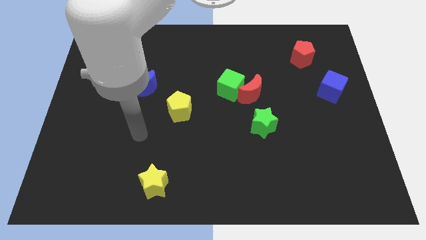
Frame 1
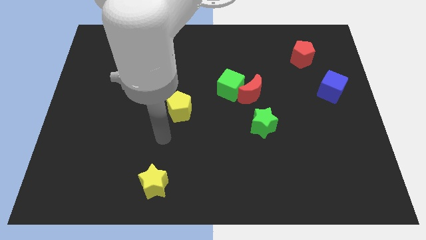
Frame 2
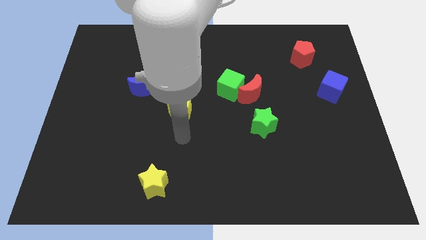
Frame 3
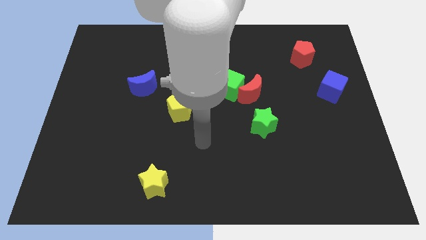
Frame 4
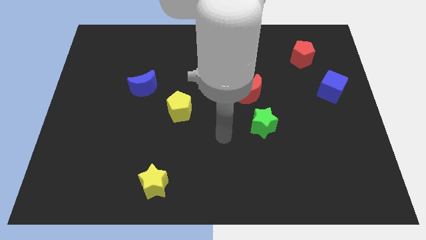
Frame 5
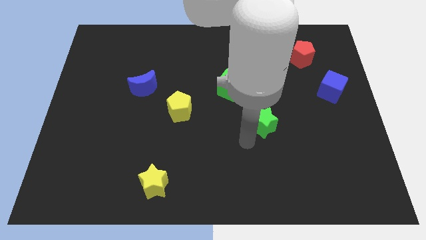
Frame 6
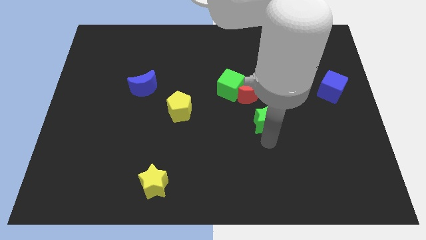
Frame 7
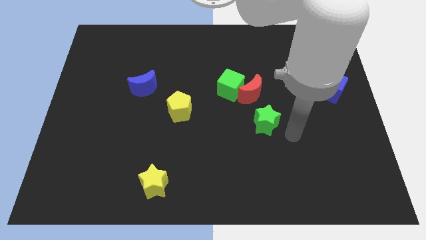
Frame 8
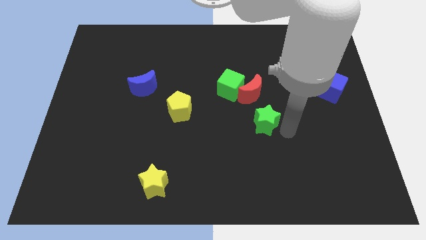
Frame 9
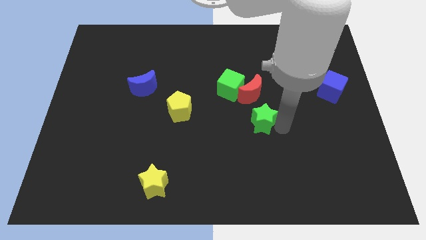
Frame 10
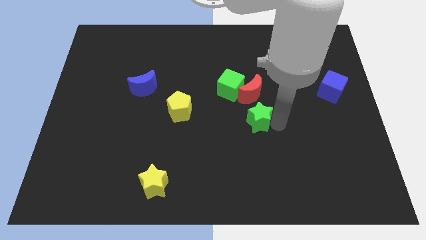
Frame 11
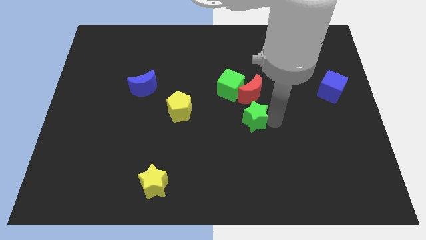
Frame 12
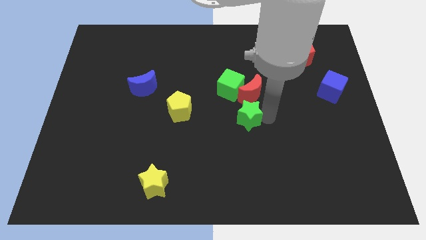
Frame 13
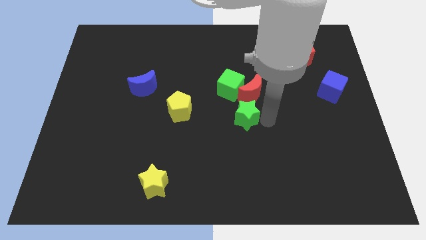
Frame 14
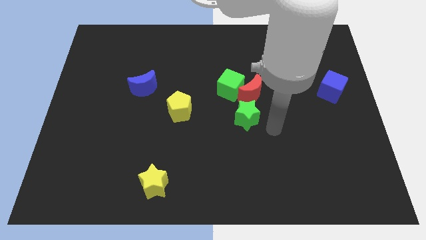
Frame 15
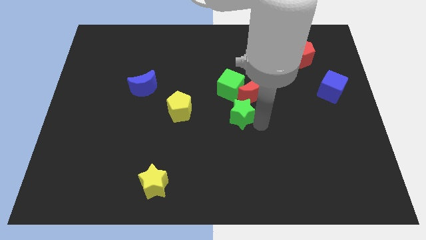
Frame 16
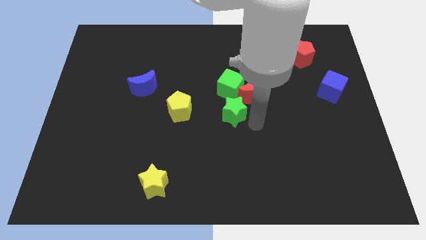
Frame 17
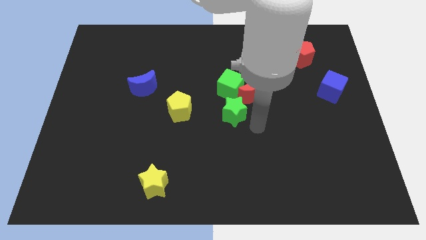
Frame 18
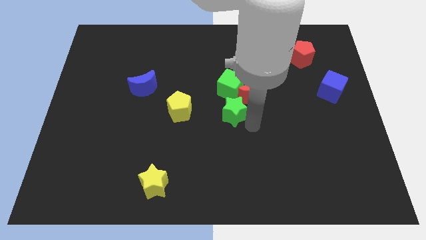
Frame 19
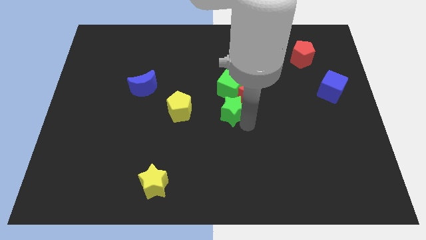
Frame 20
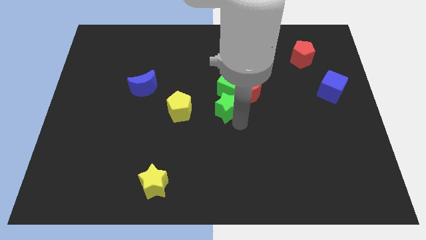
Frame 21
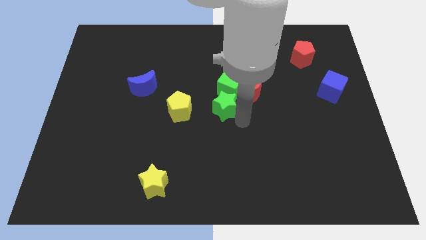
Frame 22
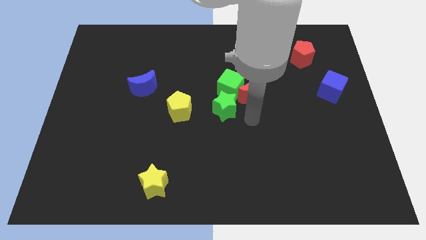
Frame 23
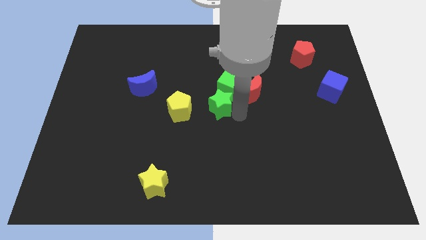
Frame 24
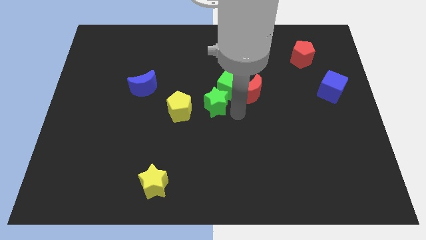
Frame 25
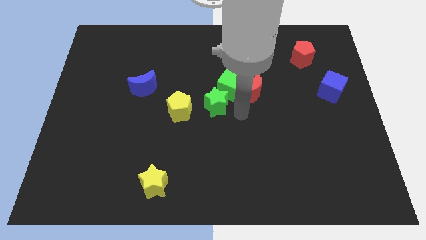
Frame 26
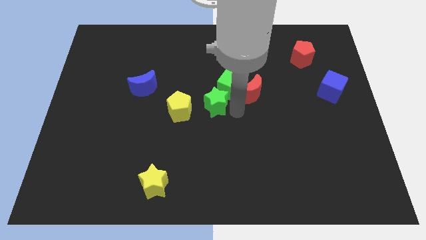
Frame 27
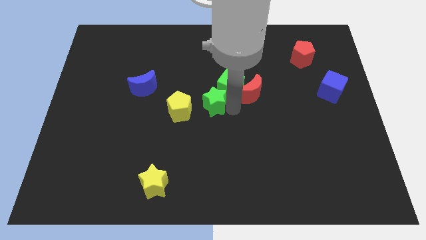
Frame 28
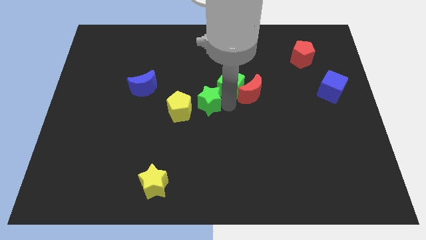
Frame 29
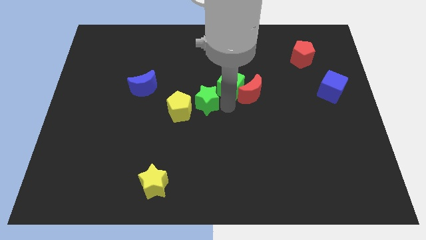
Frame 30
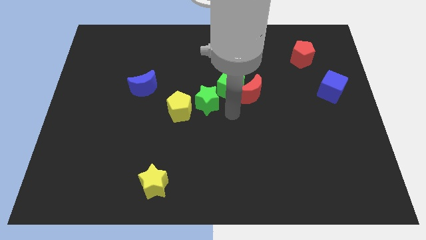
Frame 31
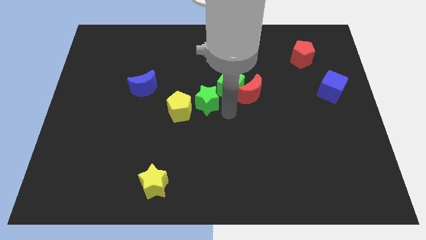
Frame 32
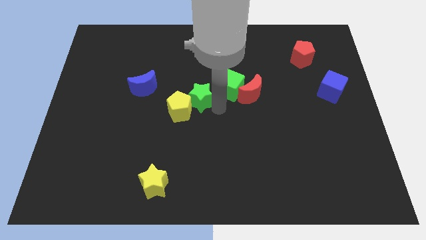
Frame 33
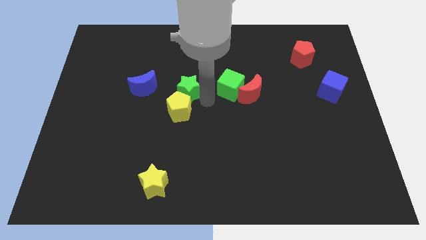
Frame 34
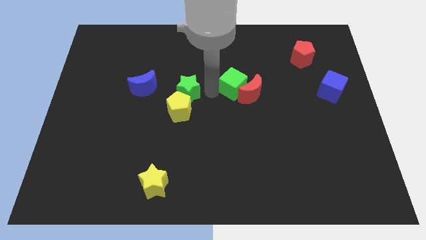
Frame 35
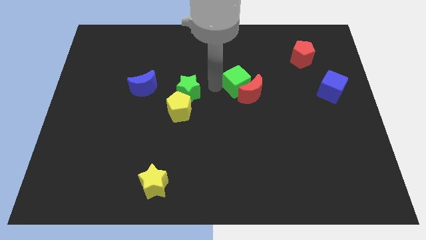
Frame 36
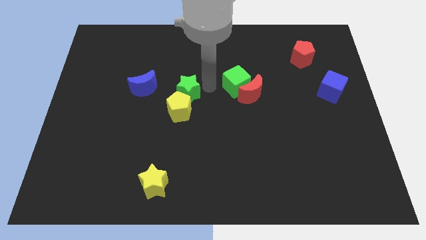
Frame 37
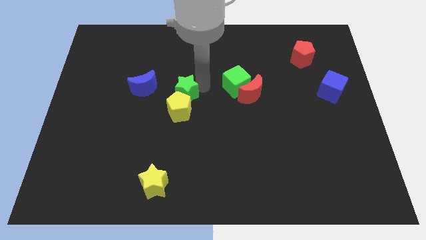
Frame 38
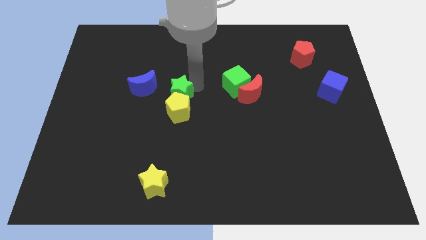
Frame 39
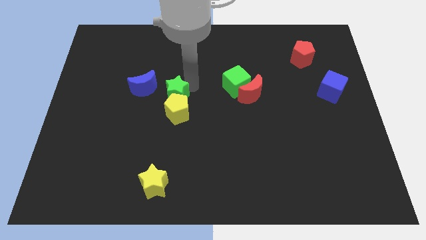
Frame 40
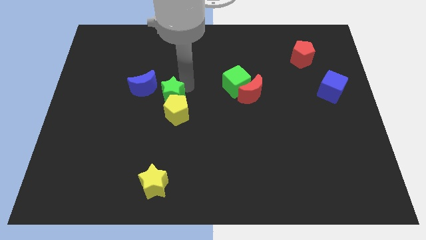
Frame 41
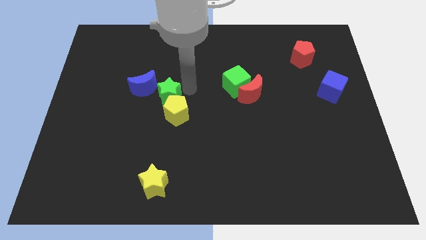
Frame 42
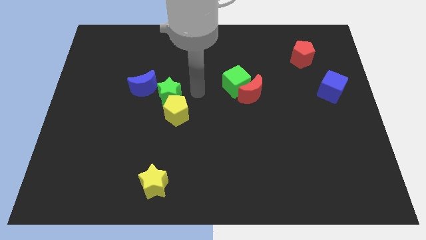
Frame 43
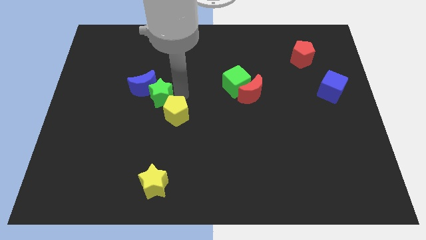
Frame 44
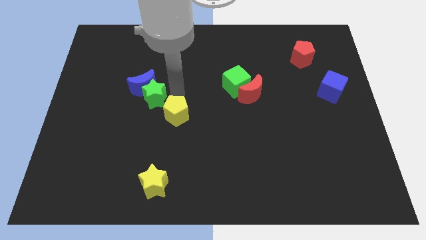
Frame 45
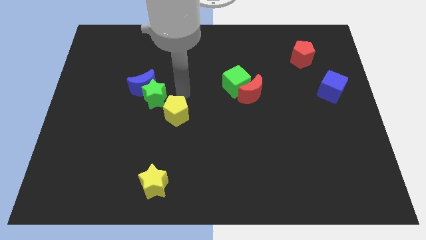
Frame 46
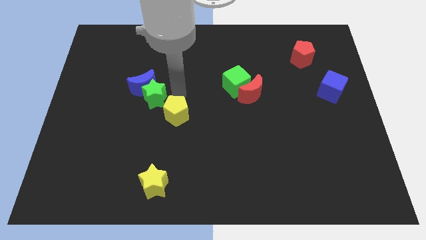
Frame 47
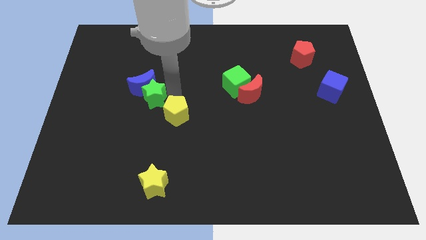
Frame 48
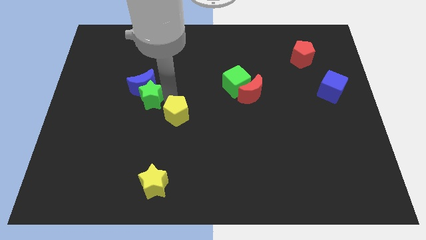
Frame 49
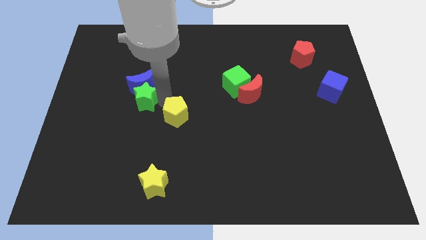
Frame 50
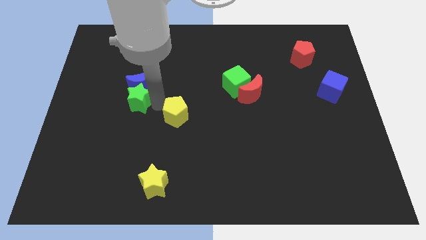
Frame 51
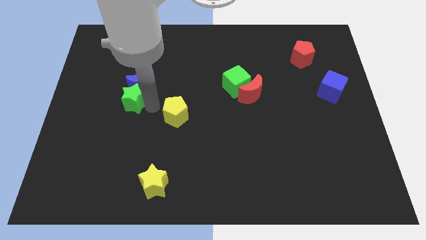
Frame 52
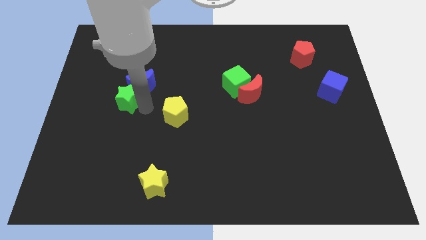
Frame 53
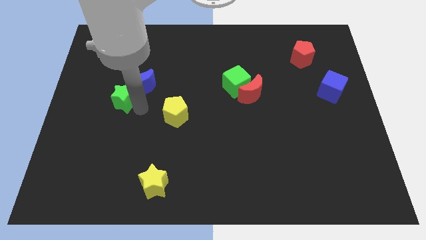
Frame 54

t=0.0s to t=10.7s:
move the green star just left of the blue moon

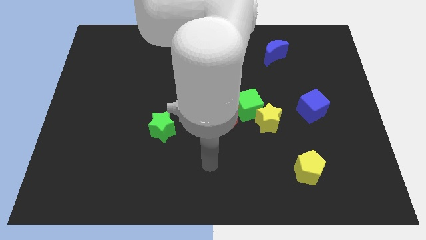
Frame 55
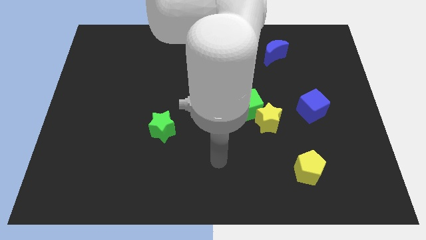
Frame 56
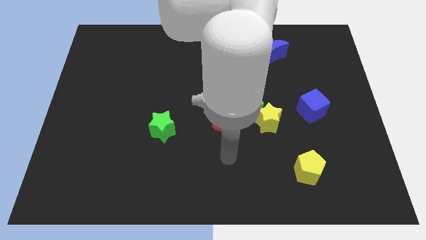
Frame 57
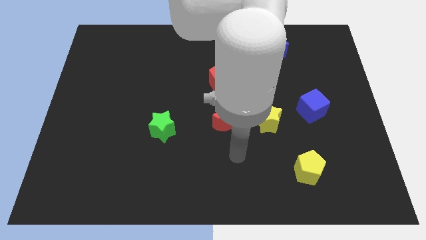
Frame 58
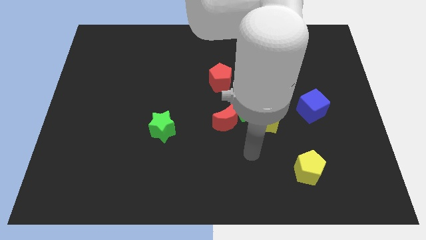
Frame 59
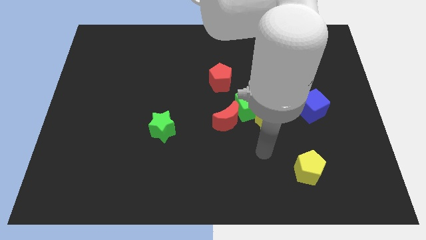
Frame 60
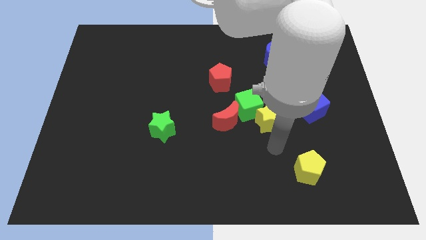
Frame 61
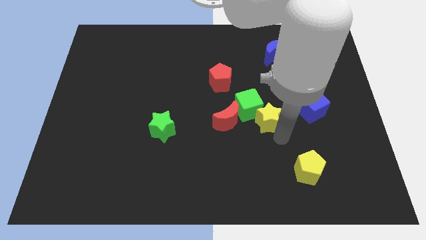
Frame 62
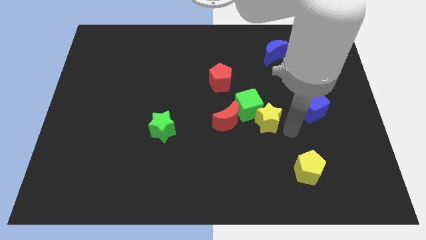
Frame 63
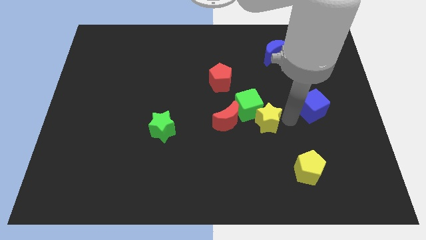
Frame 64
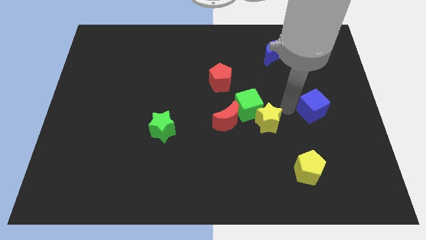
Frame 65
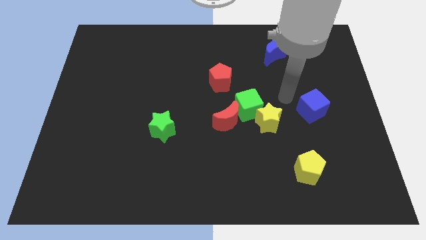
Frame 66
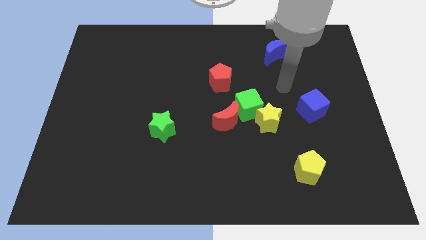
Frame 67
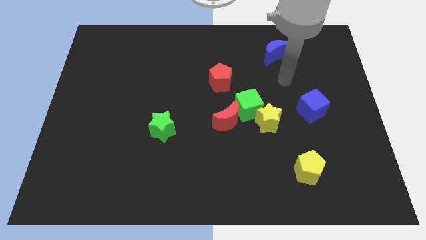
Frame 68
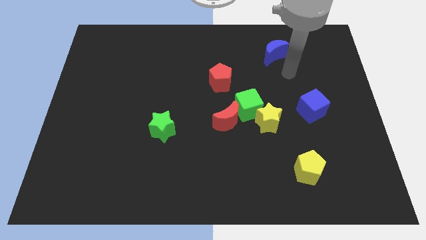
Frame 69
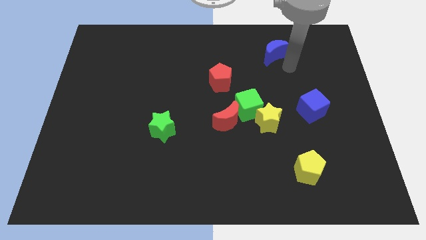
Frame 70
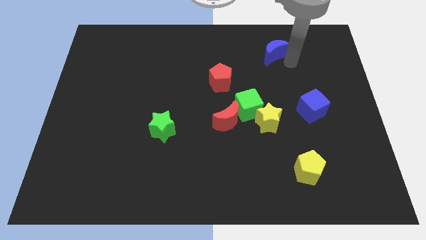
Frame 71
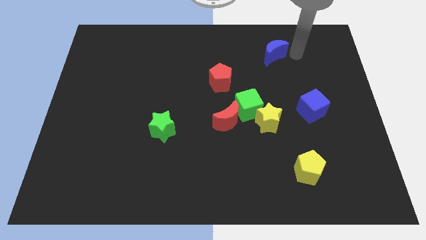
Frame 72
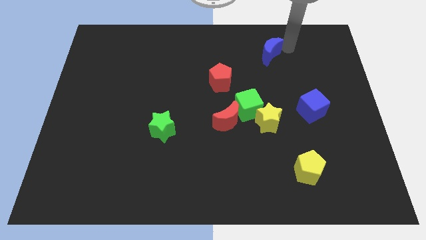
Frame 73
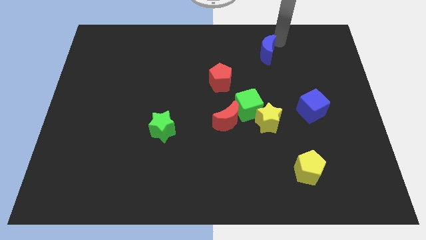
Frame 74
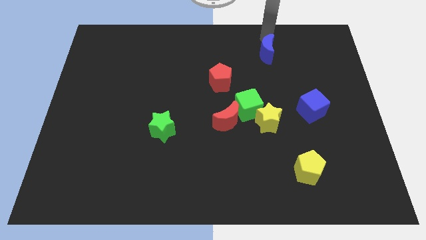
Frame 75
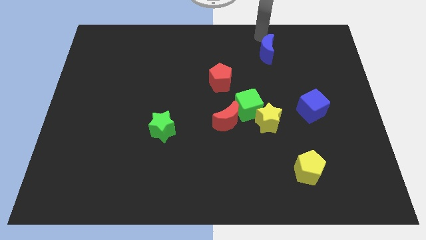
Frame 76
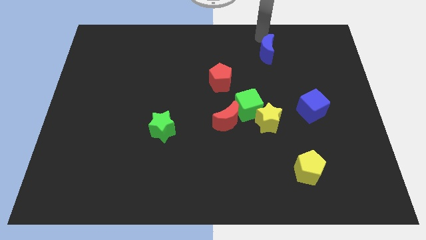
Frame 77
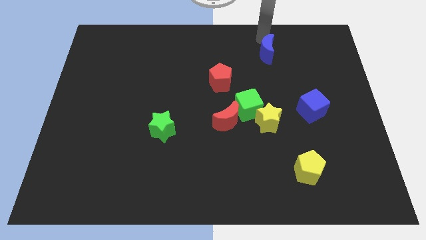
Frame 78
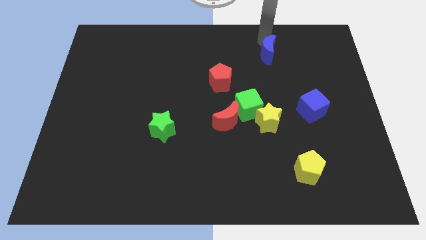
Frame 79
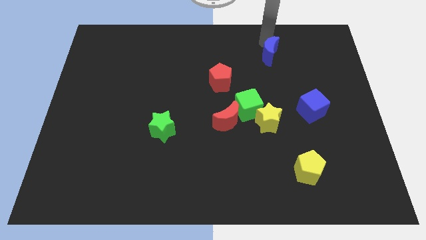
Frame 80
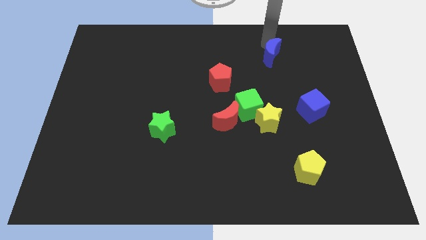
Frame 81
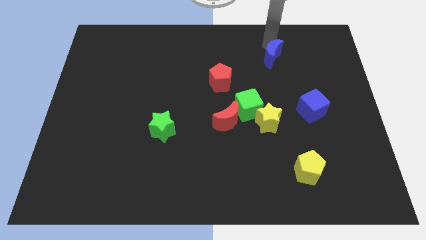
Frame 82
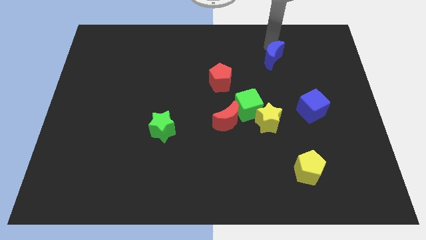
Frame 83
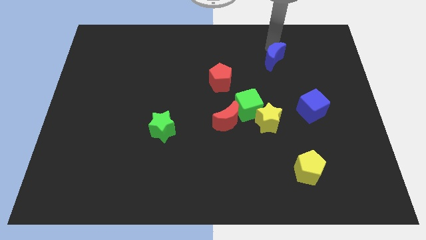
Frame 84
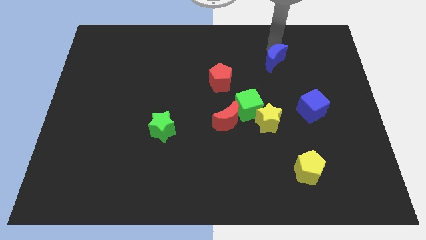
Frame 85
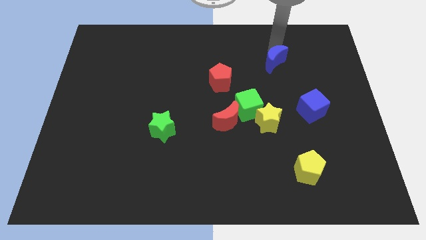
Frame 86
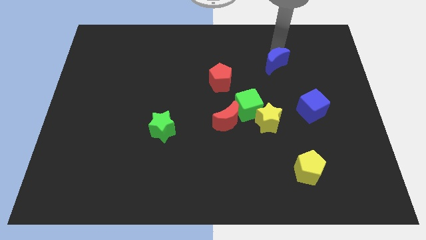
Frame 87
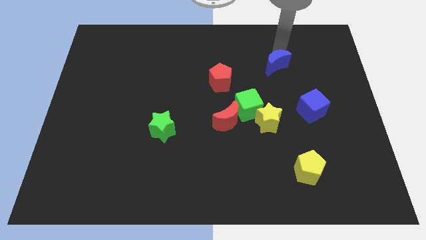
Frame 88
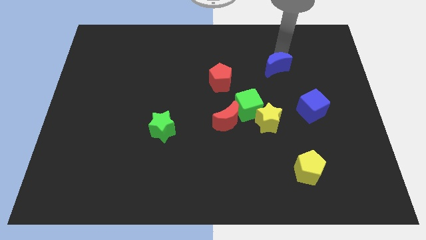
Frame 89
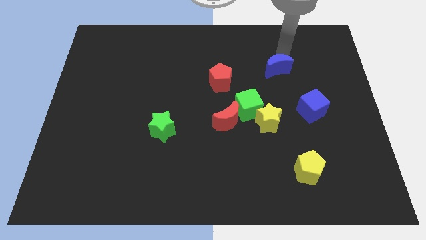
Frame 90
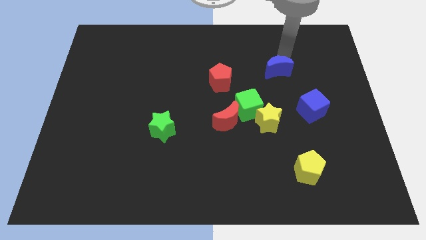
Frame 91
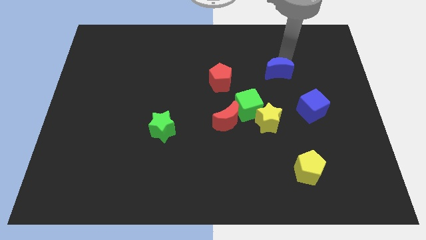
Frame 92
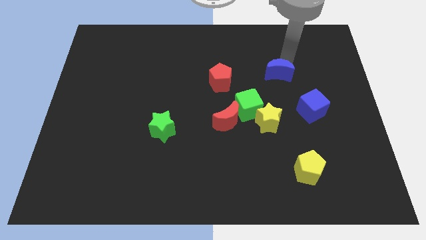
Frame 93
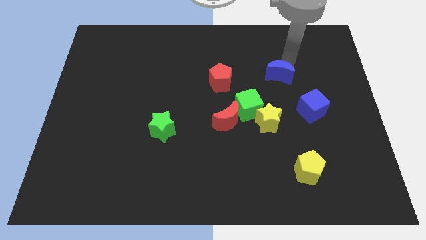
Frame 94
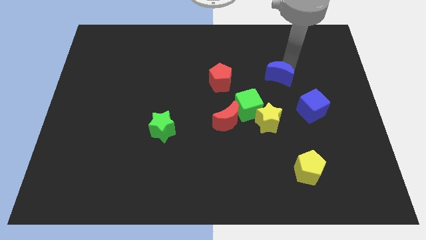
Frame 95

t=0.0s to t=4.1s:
put the blue moon to the top side of the yellow star
